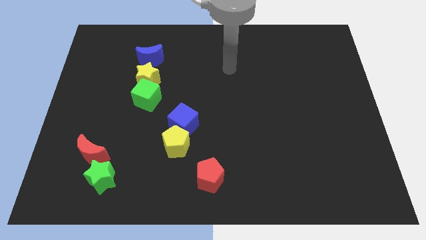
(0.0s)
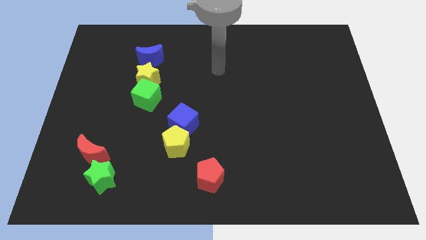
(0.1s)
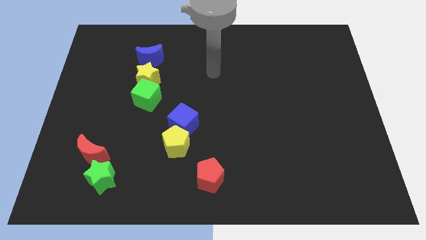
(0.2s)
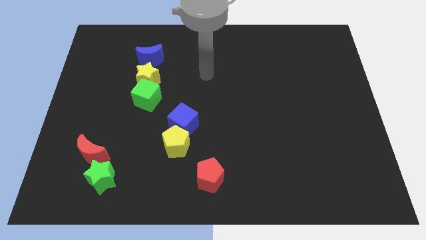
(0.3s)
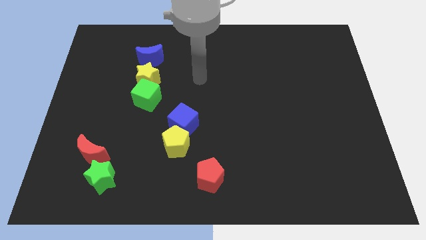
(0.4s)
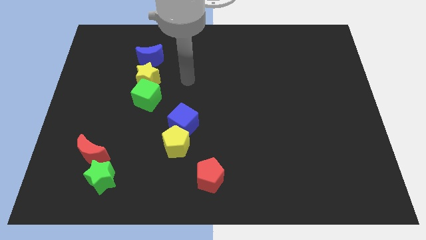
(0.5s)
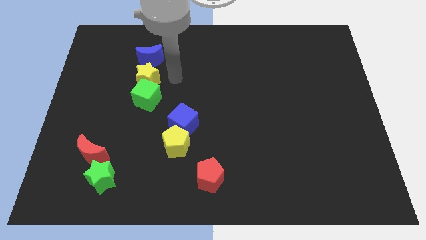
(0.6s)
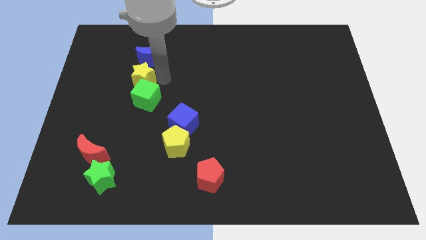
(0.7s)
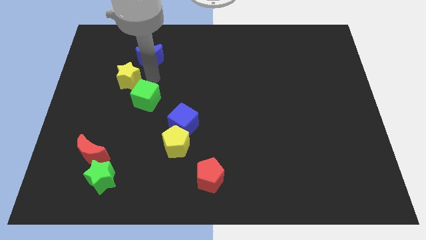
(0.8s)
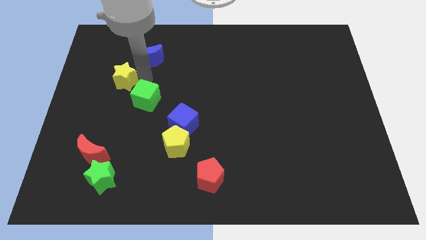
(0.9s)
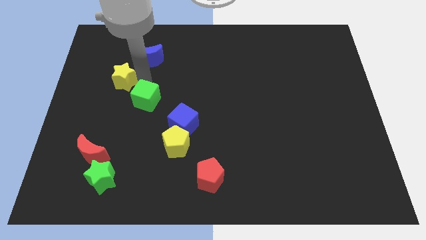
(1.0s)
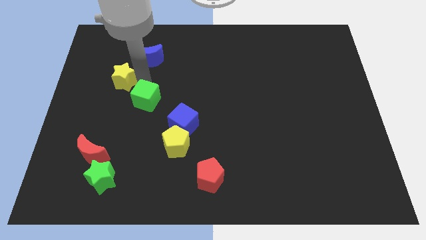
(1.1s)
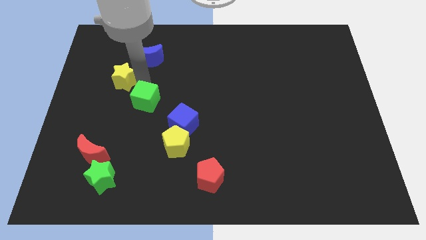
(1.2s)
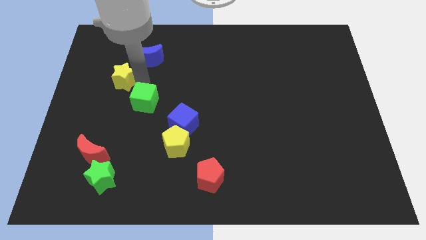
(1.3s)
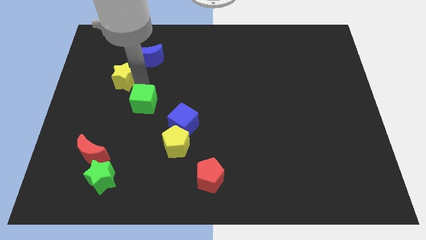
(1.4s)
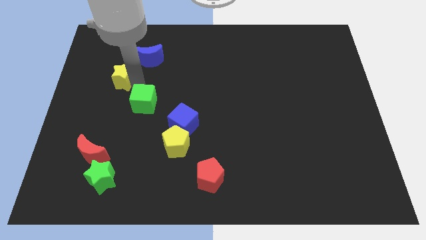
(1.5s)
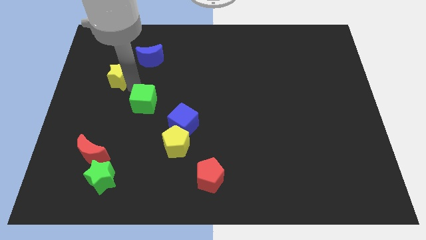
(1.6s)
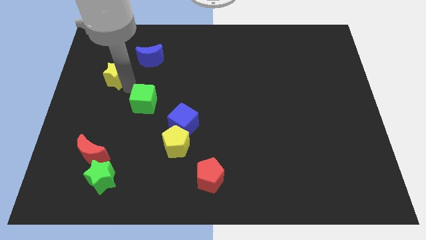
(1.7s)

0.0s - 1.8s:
pull the green cube apart from the yellow star

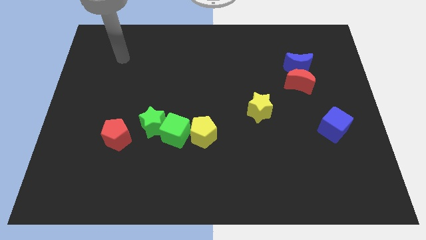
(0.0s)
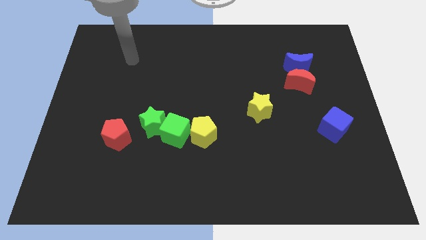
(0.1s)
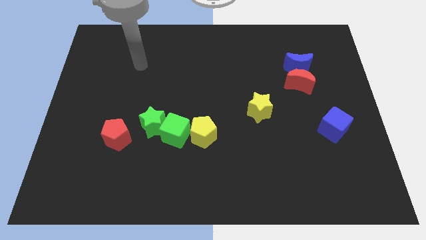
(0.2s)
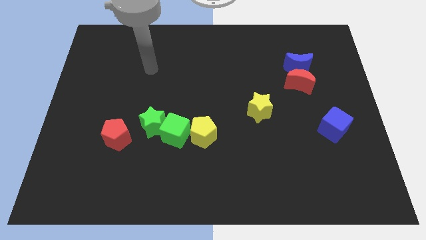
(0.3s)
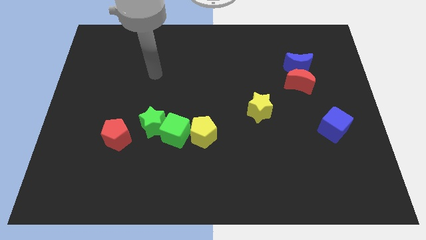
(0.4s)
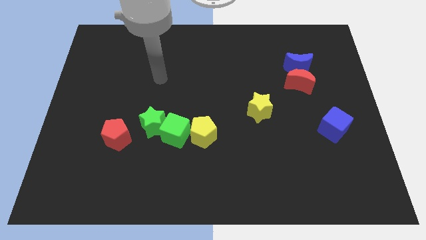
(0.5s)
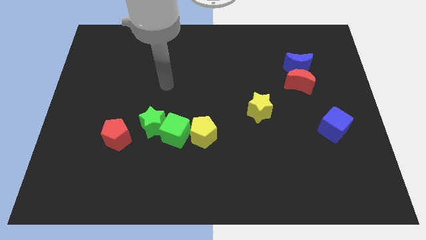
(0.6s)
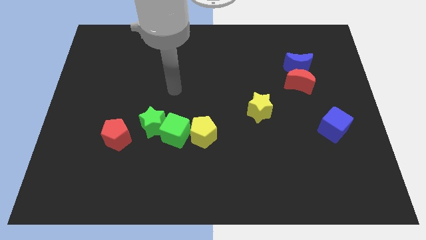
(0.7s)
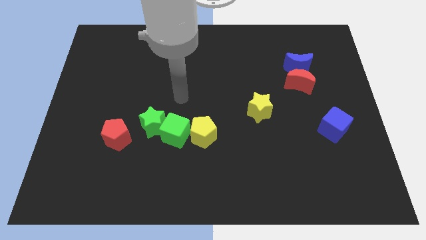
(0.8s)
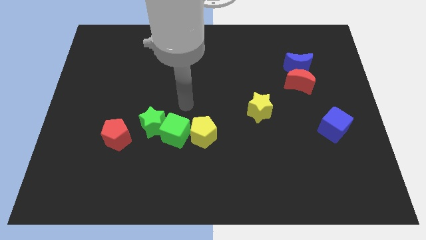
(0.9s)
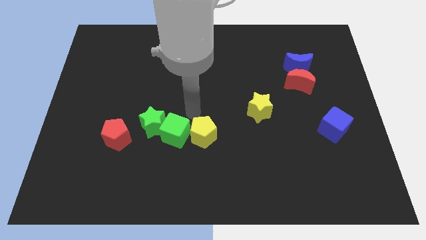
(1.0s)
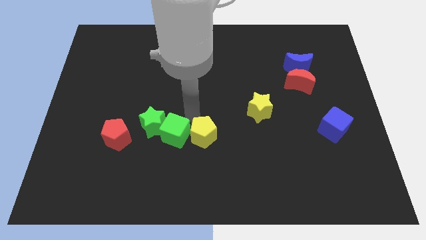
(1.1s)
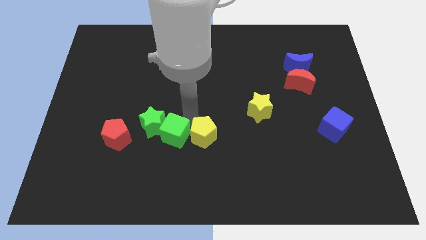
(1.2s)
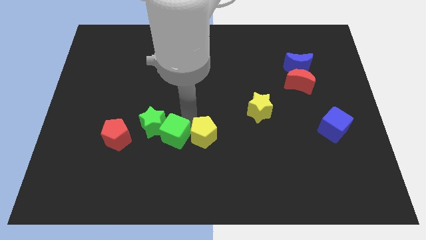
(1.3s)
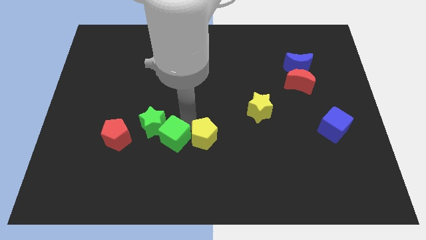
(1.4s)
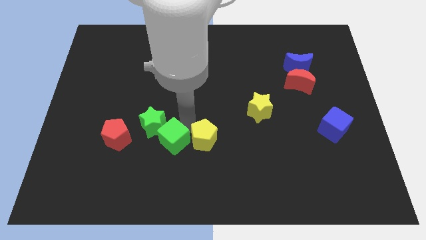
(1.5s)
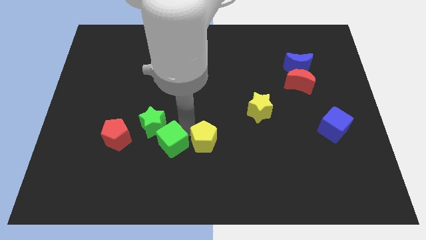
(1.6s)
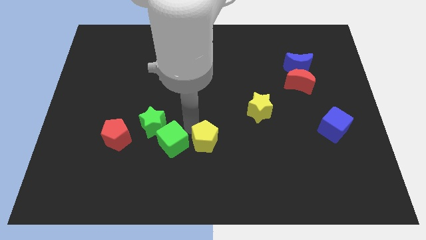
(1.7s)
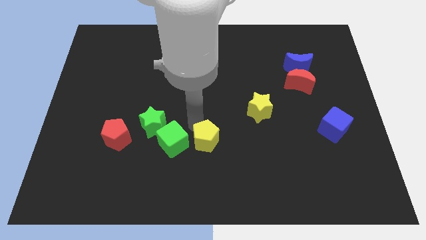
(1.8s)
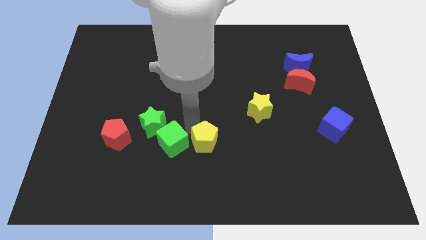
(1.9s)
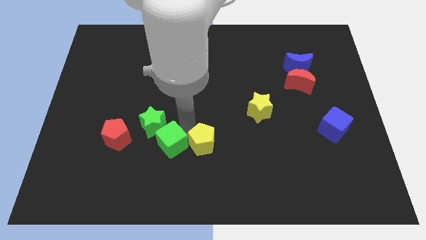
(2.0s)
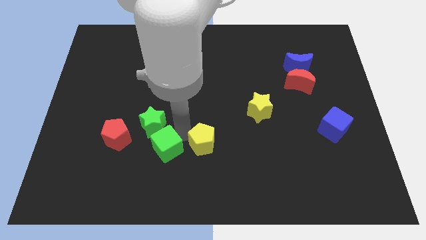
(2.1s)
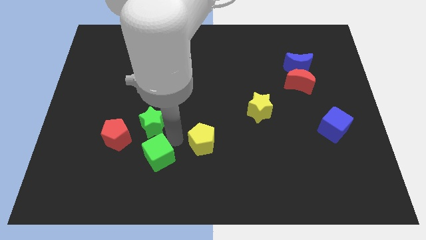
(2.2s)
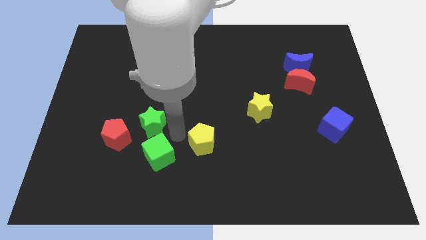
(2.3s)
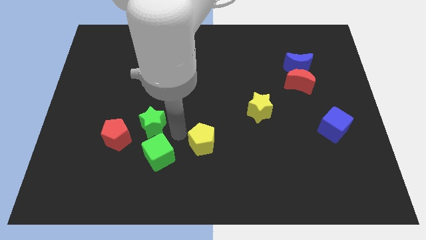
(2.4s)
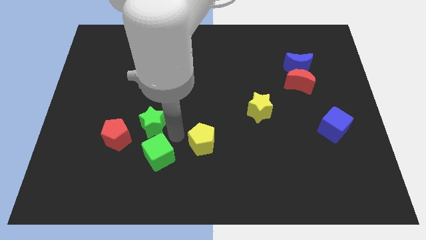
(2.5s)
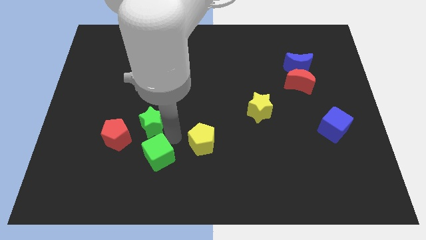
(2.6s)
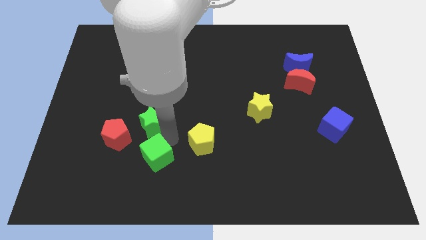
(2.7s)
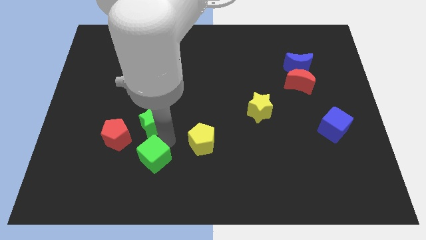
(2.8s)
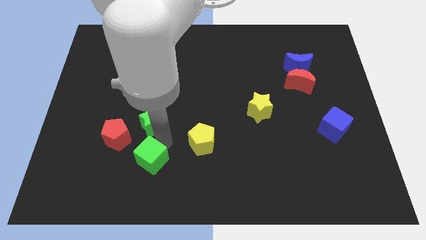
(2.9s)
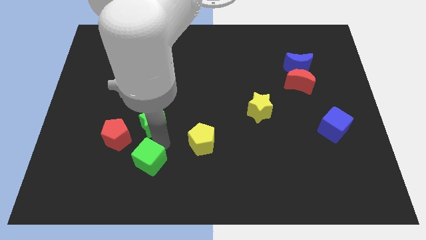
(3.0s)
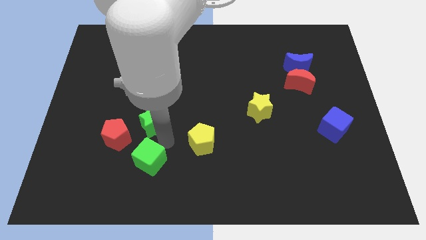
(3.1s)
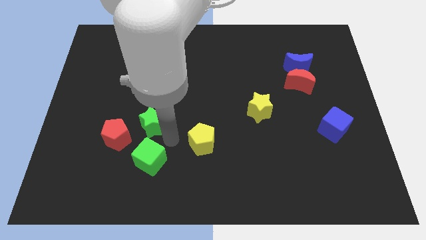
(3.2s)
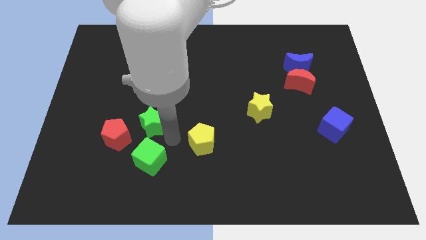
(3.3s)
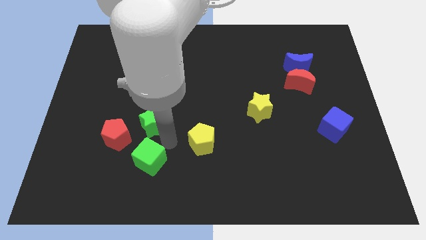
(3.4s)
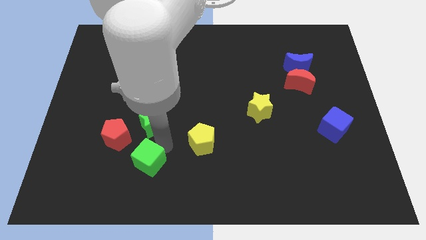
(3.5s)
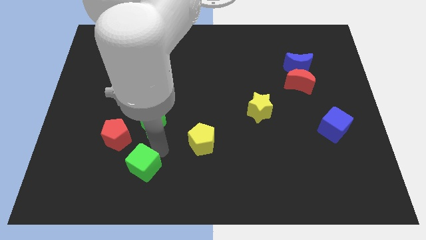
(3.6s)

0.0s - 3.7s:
separate the green cube from the green star and yellow pentagon

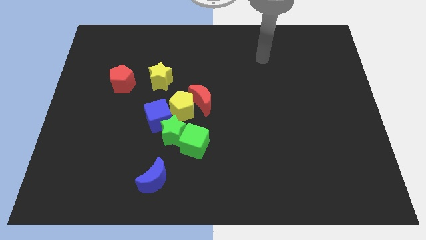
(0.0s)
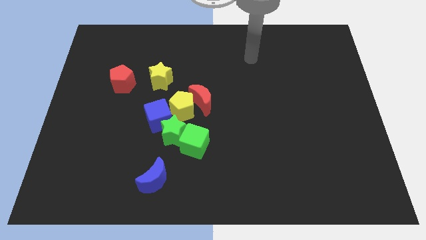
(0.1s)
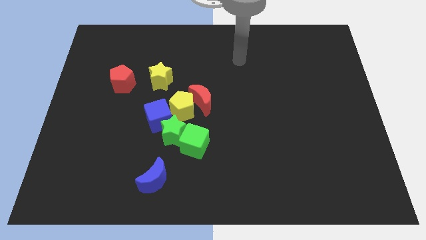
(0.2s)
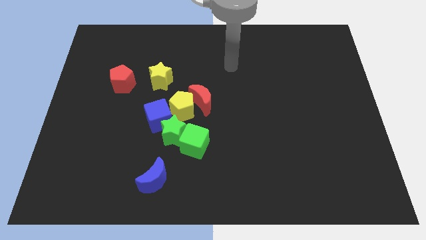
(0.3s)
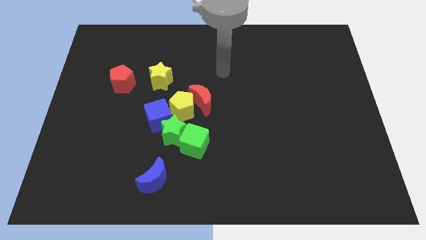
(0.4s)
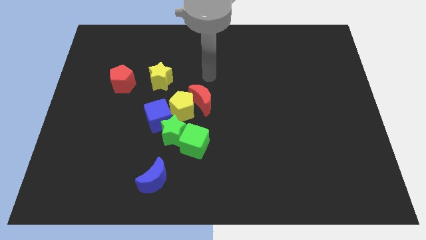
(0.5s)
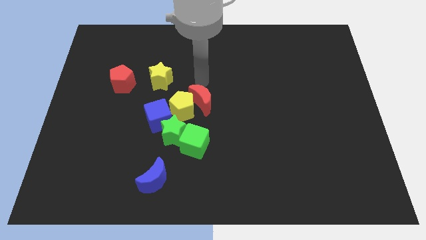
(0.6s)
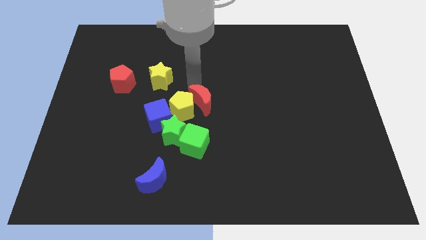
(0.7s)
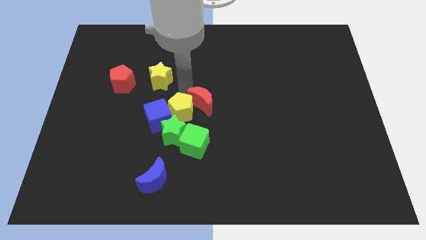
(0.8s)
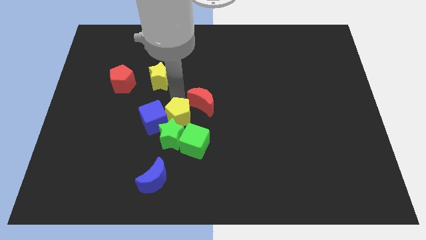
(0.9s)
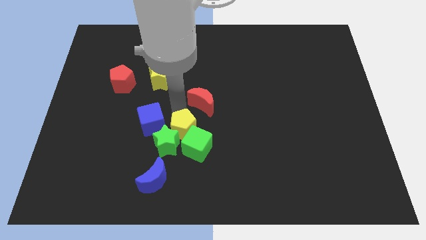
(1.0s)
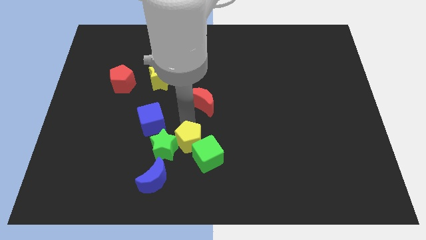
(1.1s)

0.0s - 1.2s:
move the red moon away from the yellow pentagon

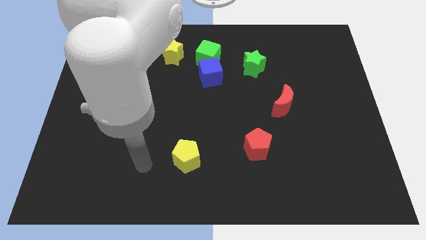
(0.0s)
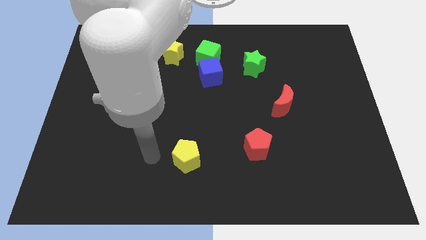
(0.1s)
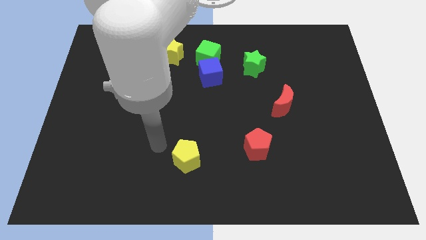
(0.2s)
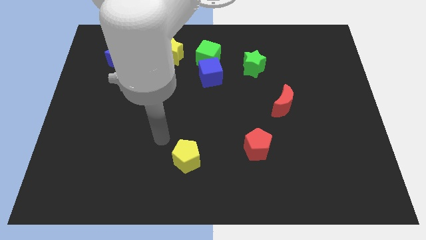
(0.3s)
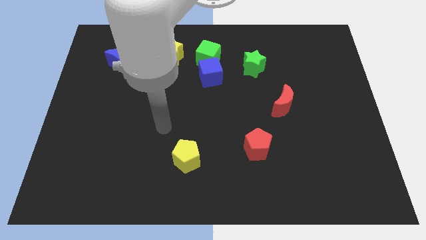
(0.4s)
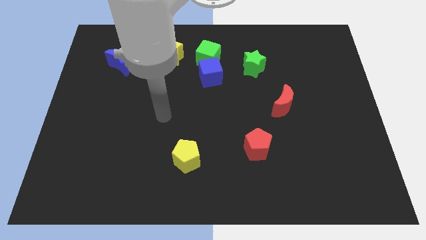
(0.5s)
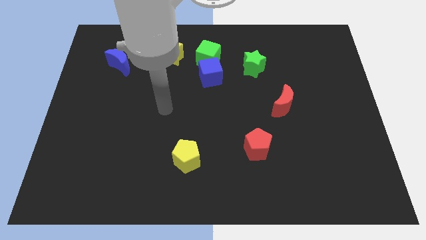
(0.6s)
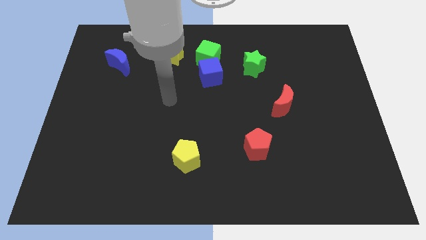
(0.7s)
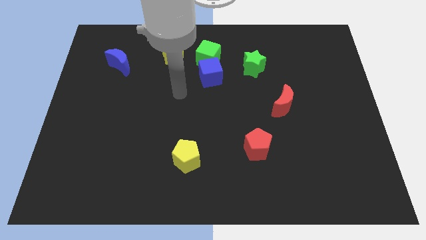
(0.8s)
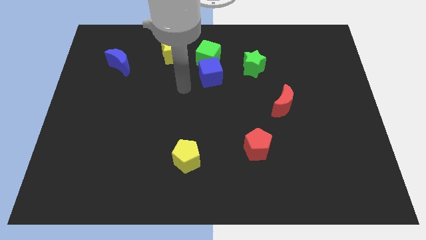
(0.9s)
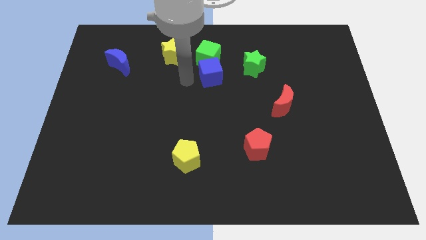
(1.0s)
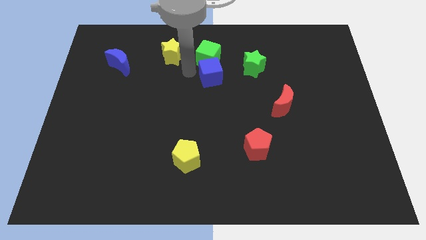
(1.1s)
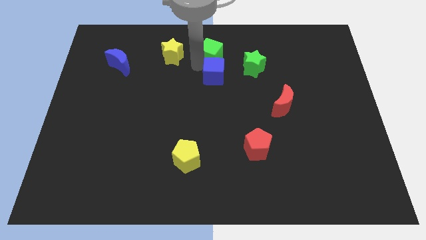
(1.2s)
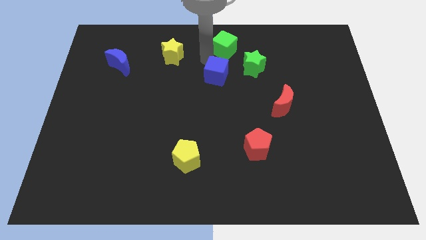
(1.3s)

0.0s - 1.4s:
separate the blue cube from the green cube

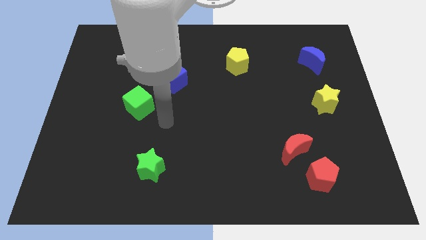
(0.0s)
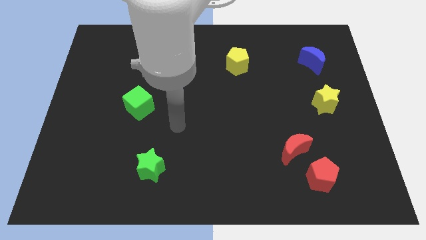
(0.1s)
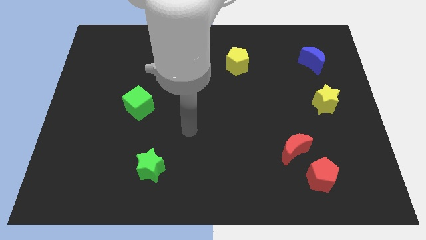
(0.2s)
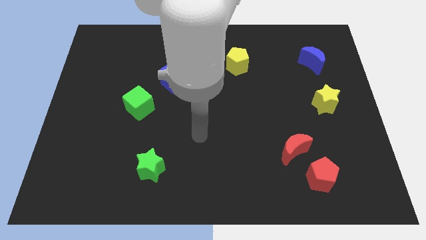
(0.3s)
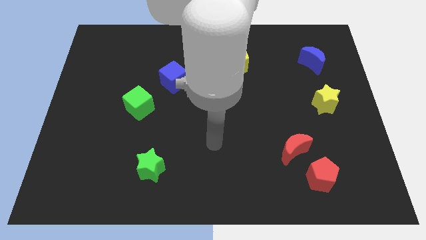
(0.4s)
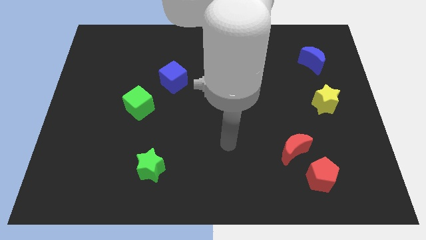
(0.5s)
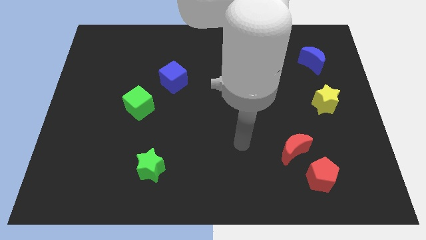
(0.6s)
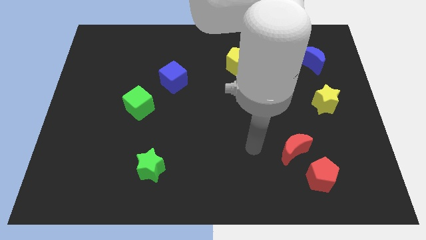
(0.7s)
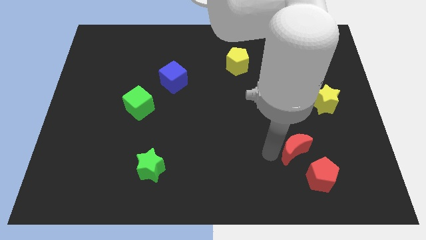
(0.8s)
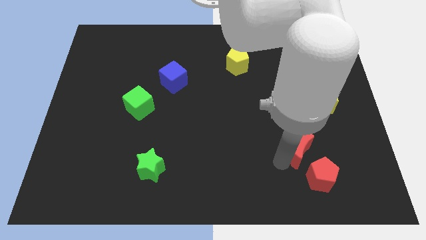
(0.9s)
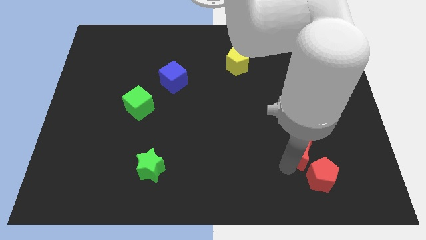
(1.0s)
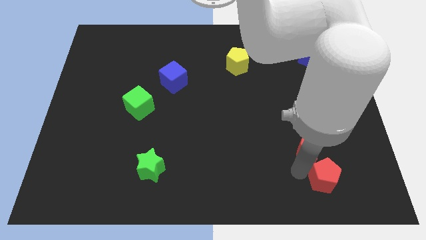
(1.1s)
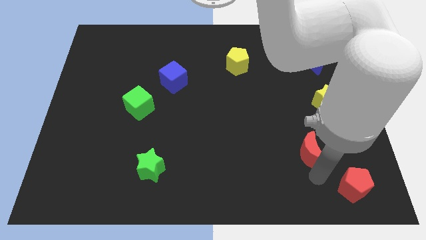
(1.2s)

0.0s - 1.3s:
separate the red moon from the red pentagon
